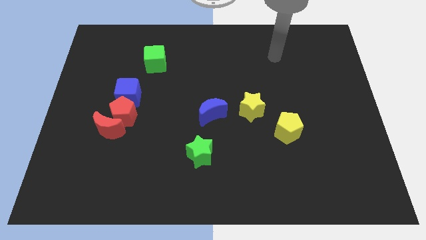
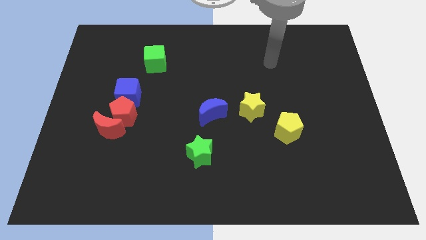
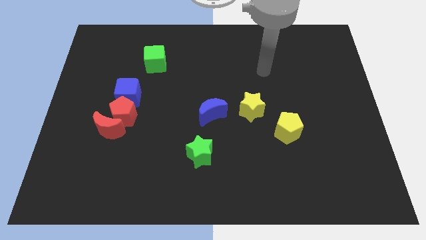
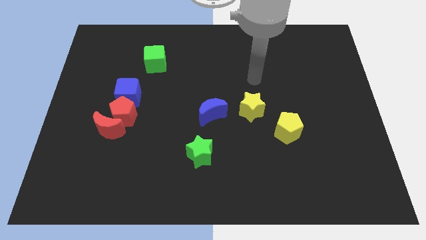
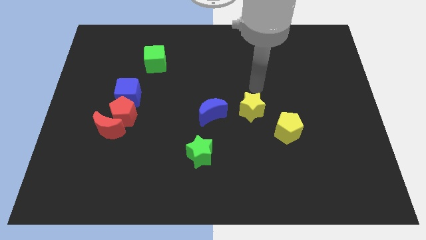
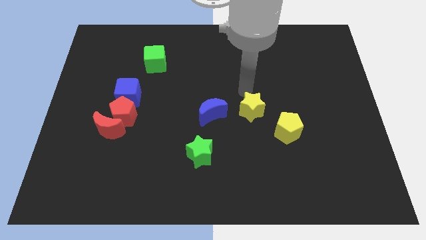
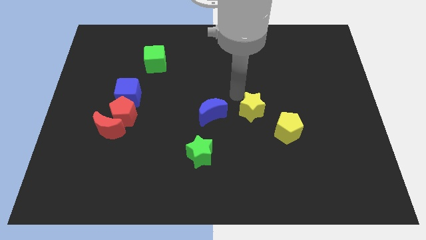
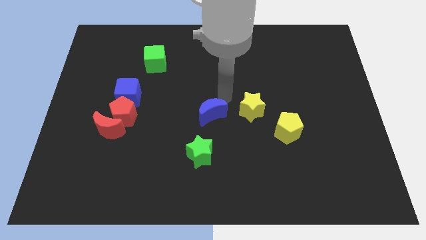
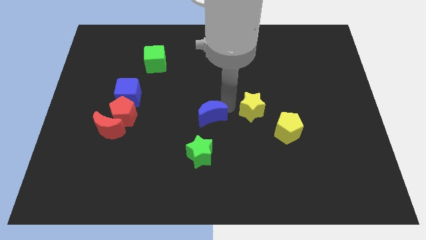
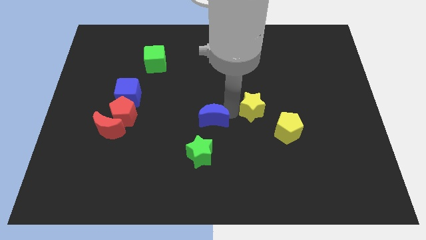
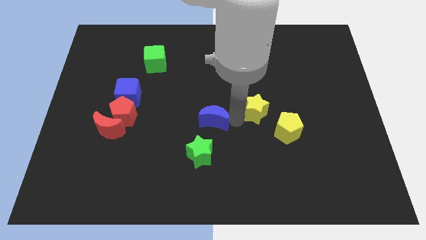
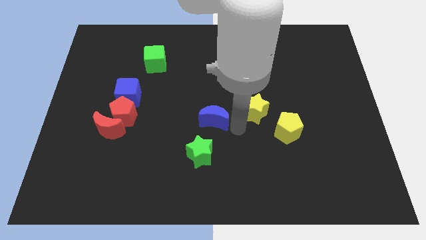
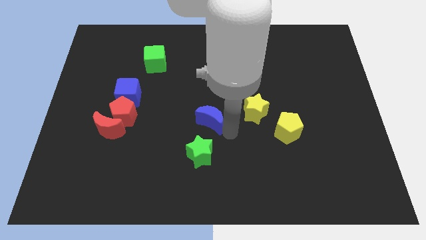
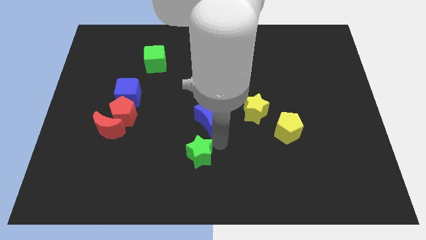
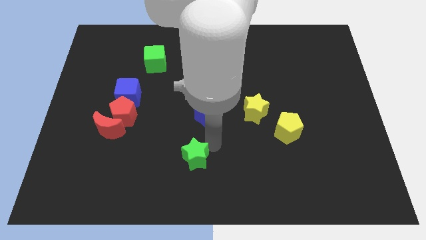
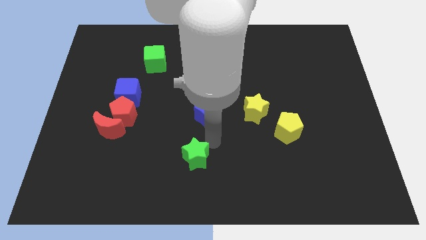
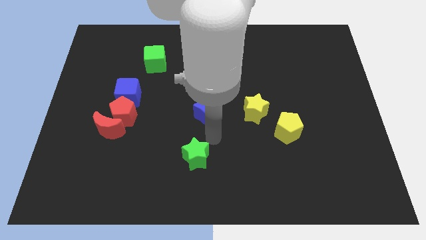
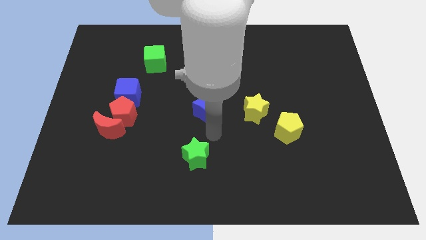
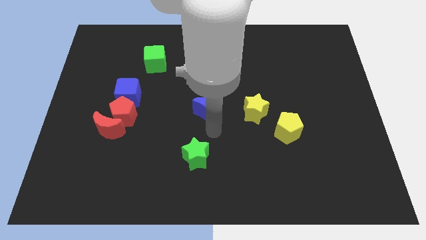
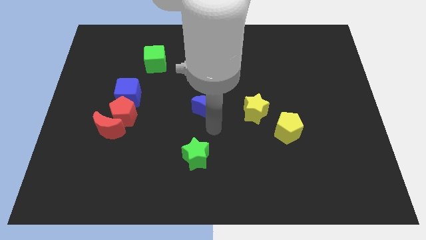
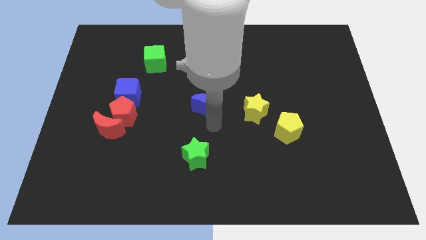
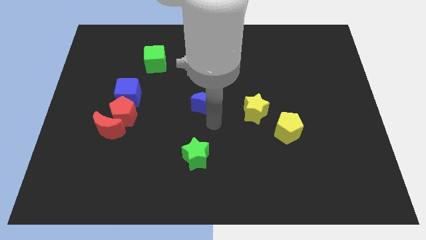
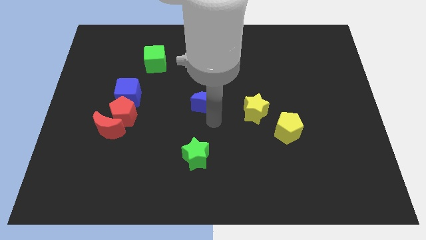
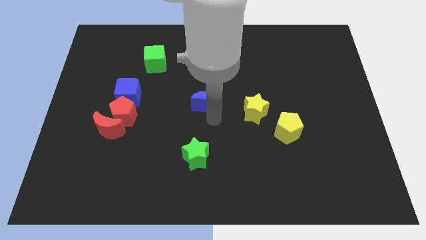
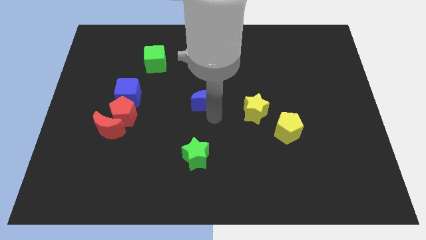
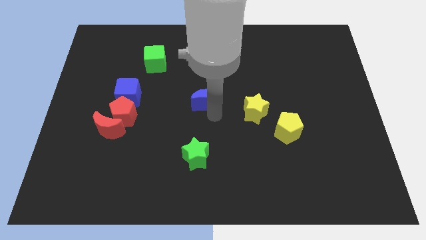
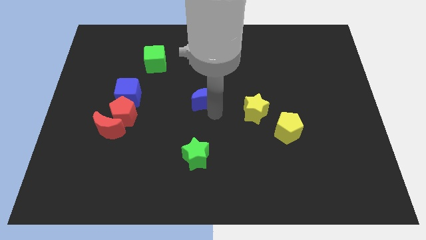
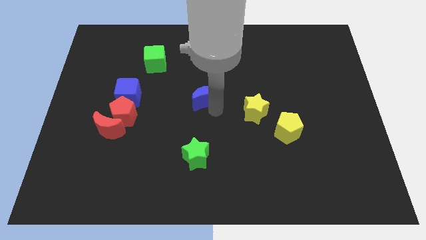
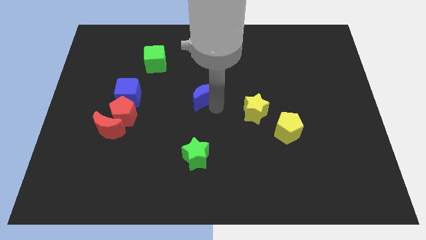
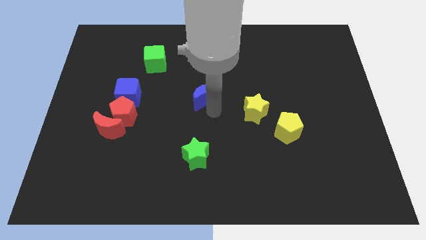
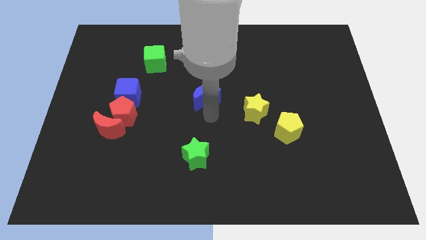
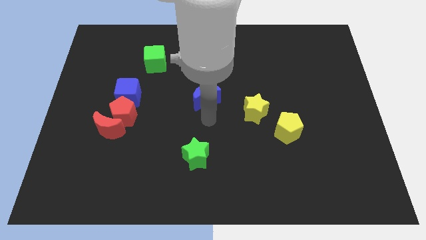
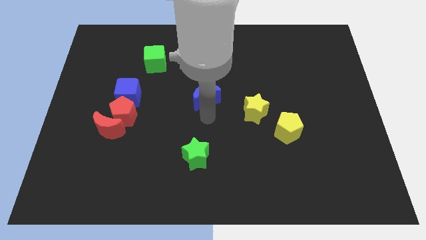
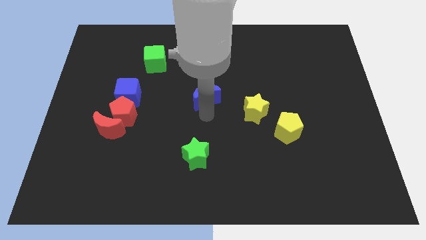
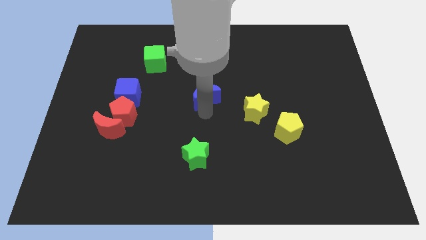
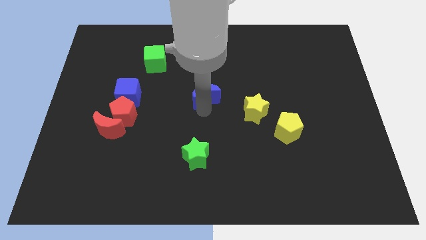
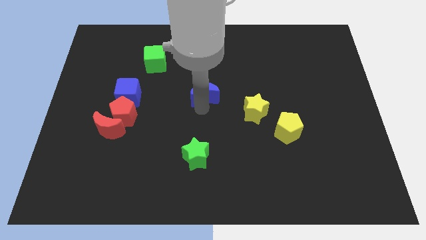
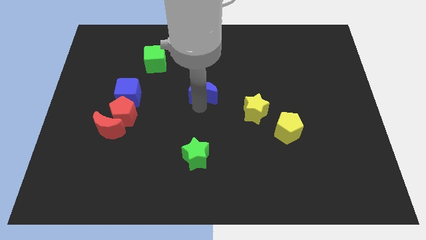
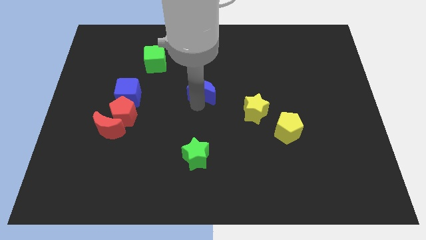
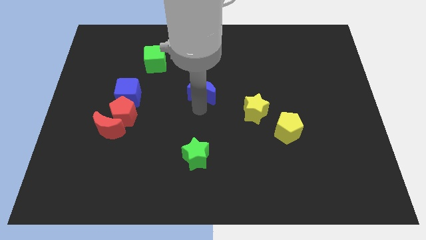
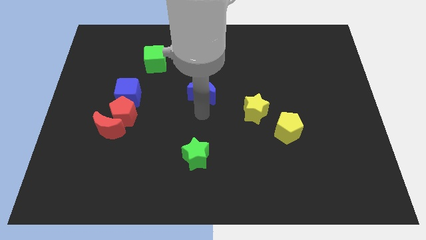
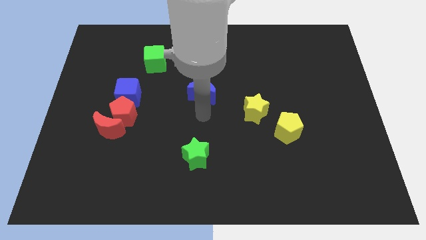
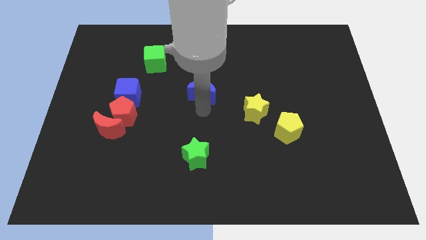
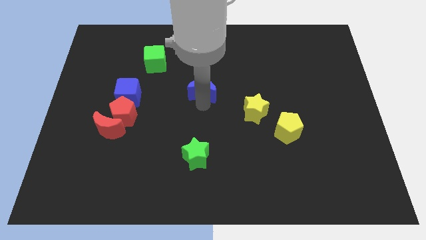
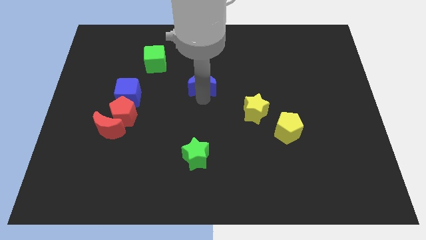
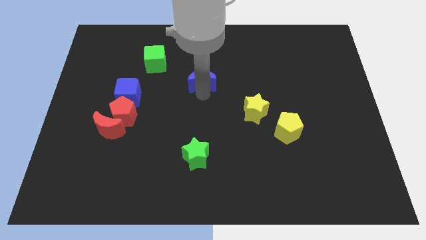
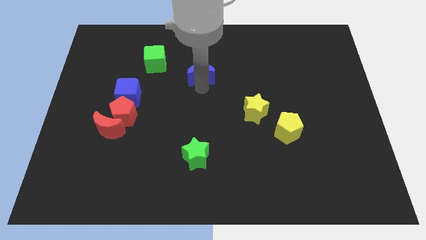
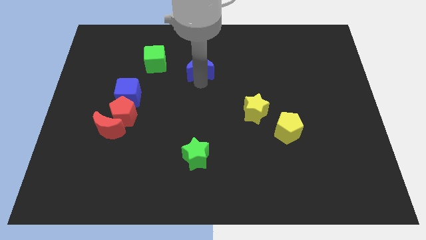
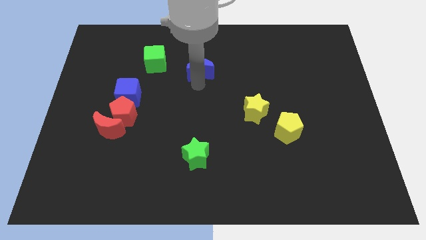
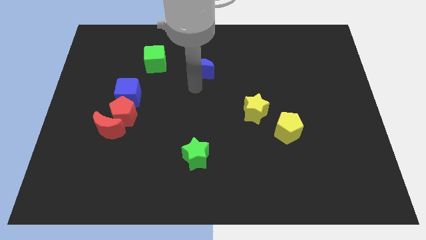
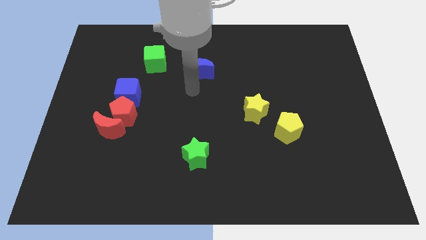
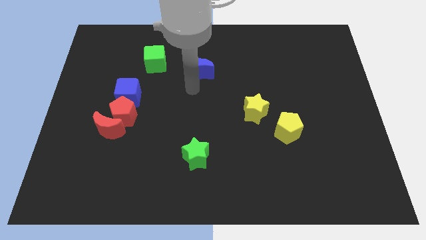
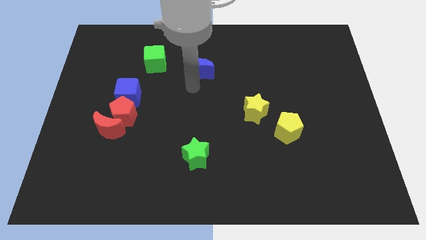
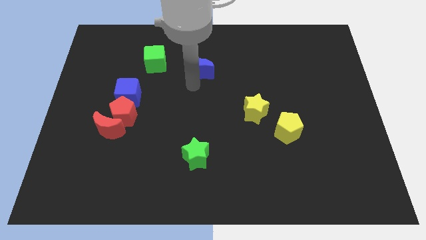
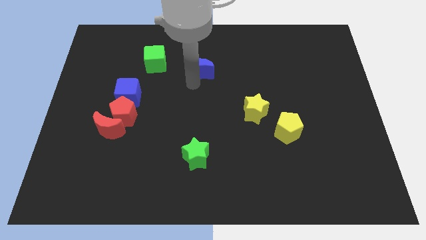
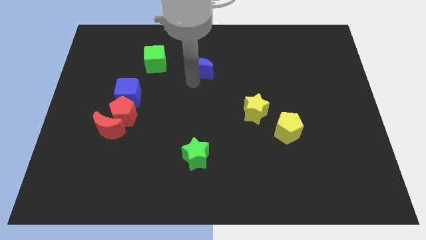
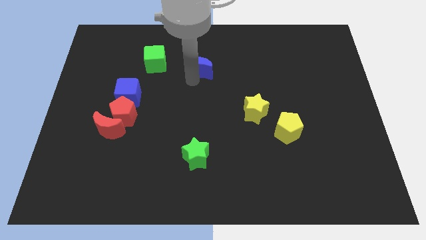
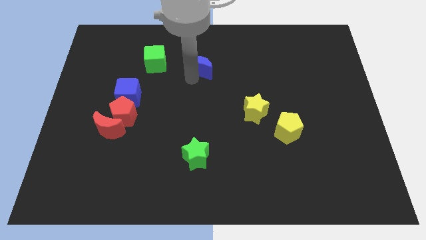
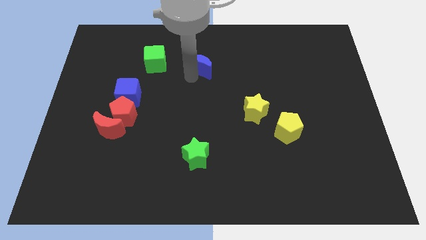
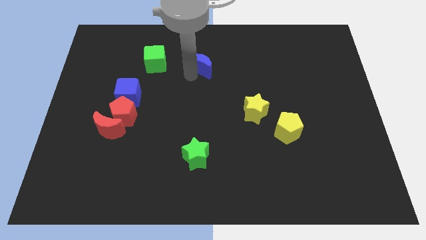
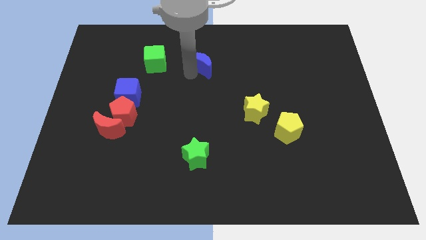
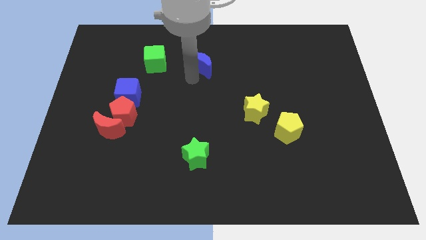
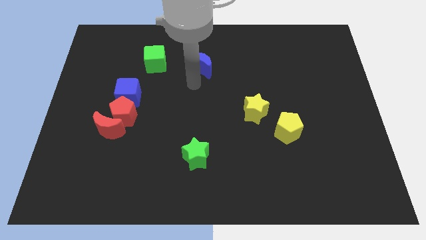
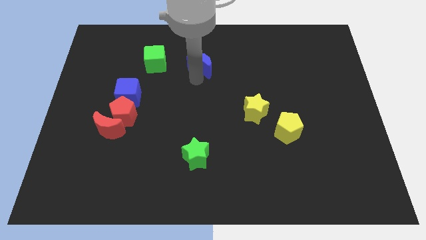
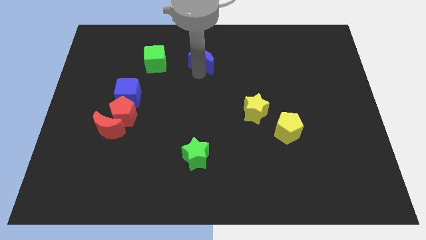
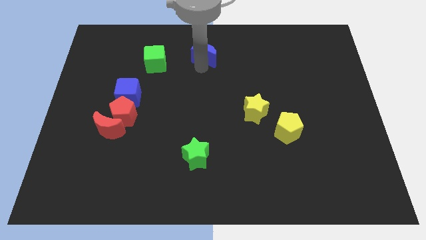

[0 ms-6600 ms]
put the blue moon to the towards your base
